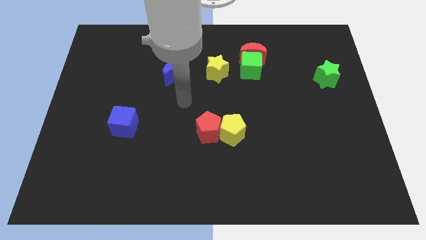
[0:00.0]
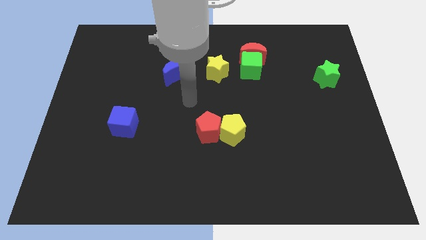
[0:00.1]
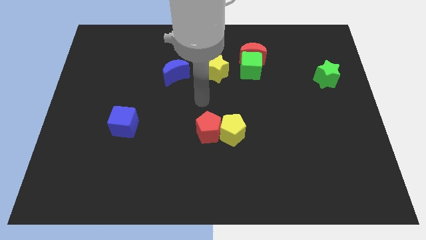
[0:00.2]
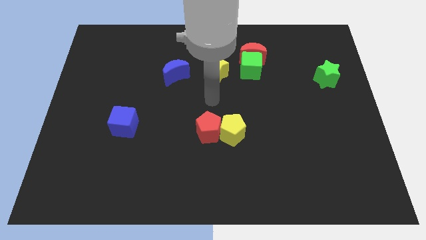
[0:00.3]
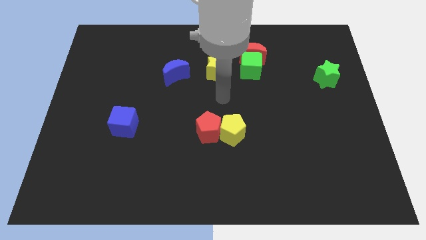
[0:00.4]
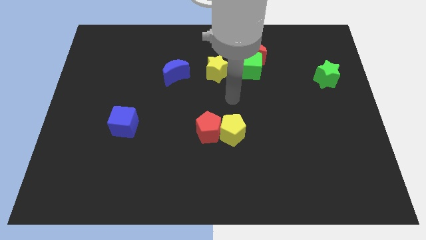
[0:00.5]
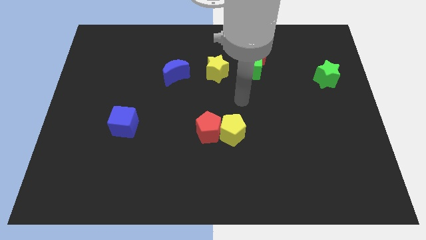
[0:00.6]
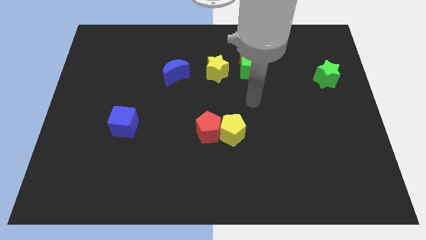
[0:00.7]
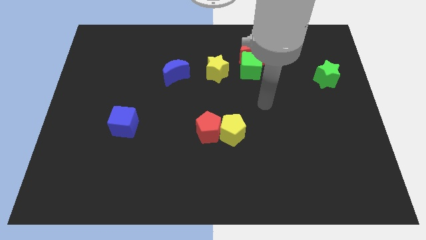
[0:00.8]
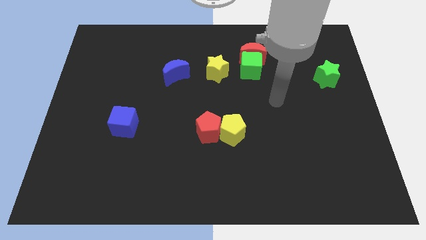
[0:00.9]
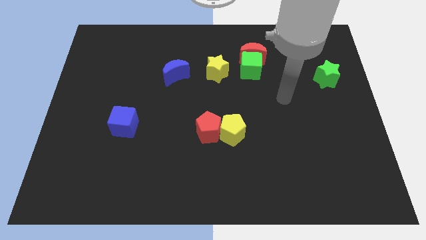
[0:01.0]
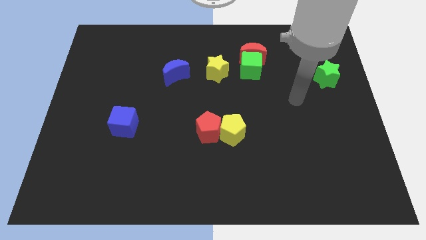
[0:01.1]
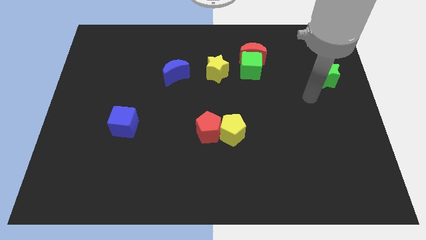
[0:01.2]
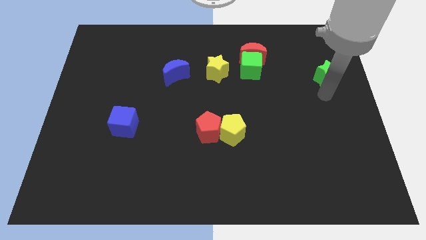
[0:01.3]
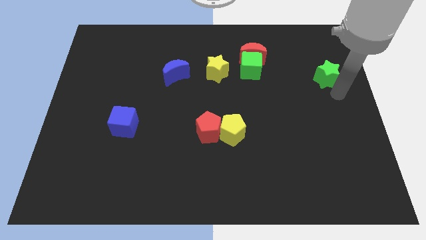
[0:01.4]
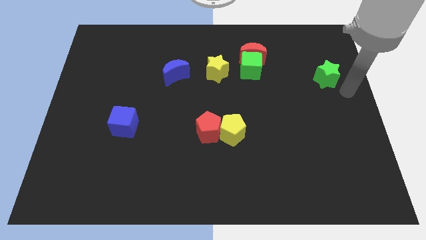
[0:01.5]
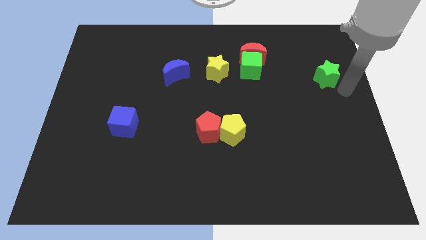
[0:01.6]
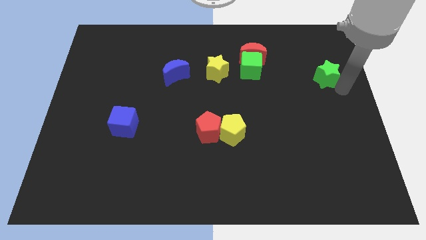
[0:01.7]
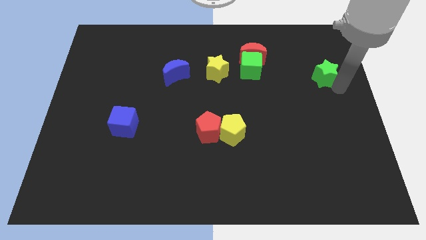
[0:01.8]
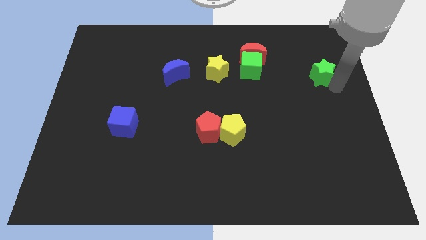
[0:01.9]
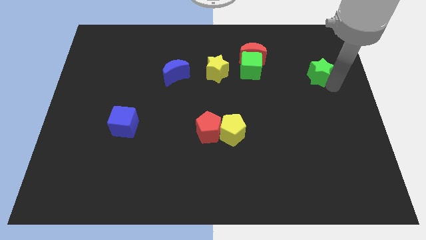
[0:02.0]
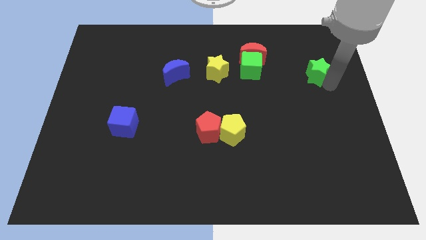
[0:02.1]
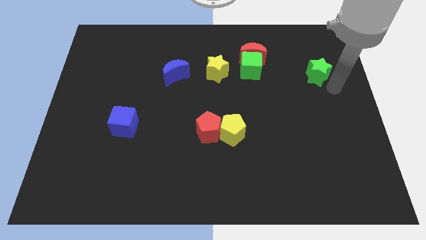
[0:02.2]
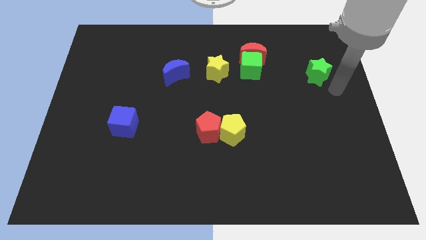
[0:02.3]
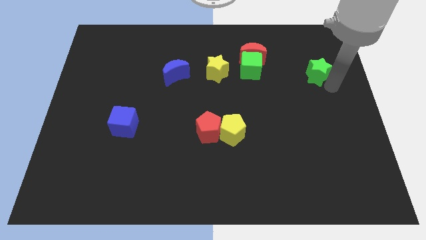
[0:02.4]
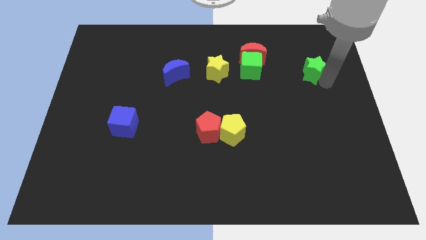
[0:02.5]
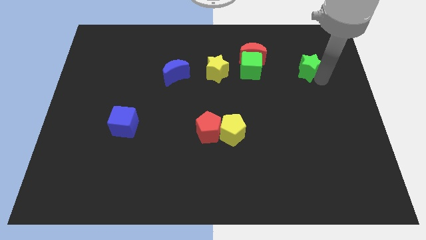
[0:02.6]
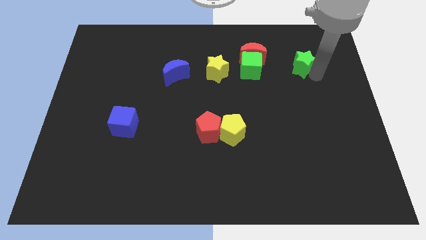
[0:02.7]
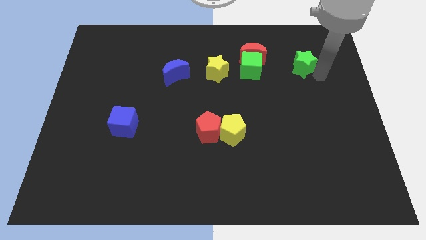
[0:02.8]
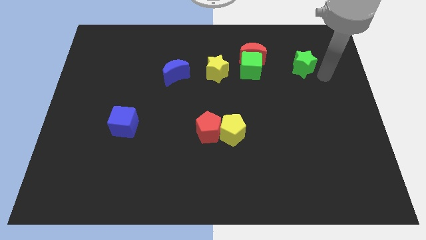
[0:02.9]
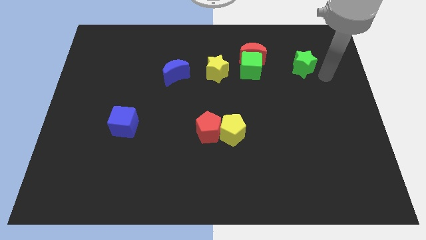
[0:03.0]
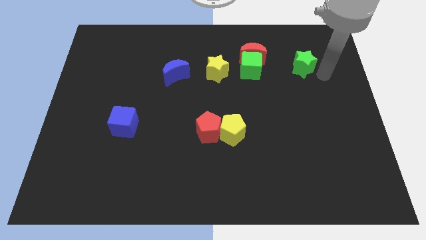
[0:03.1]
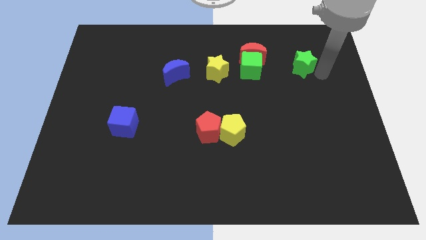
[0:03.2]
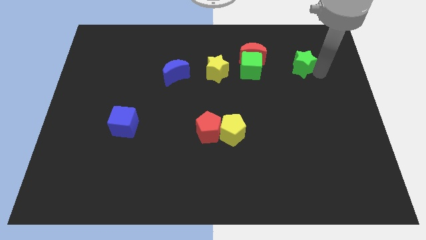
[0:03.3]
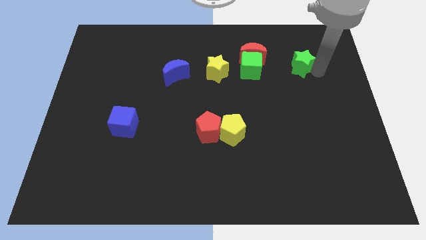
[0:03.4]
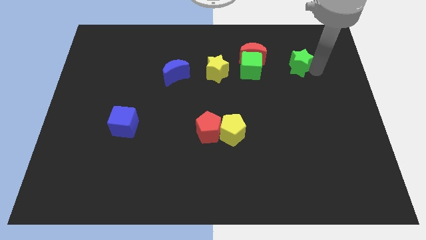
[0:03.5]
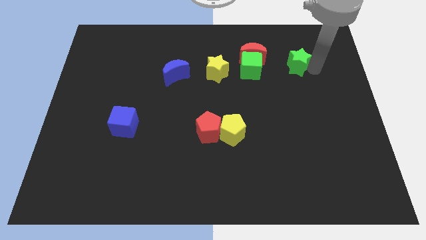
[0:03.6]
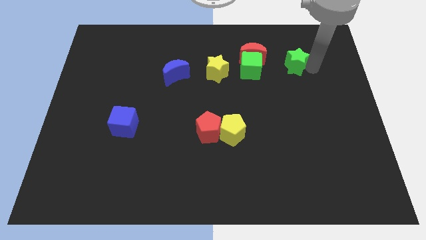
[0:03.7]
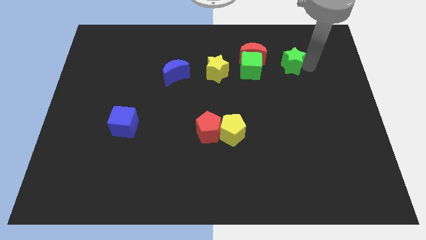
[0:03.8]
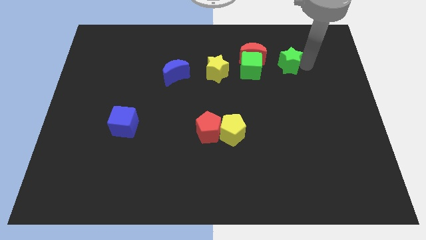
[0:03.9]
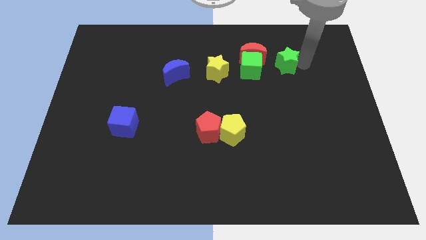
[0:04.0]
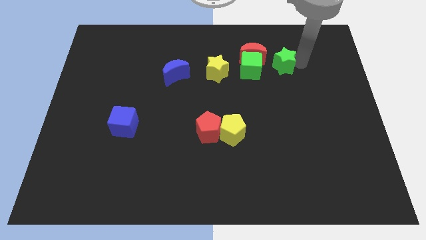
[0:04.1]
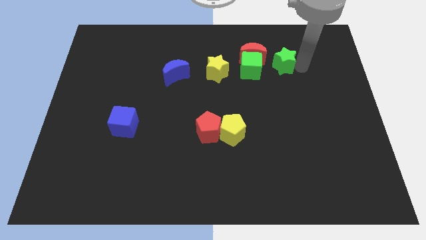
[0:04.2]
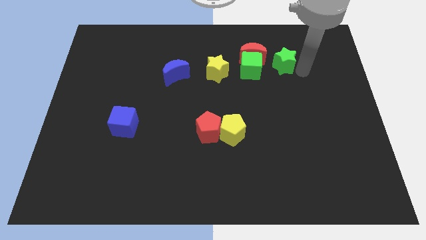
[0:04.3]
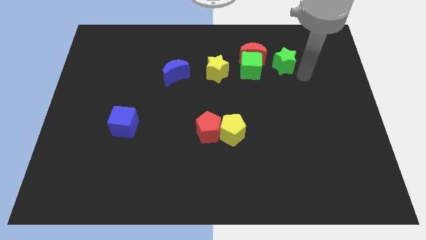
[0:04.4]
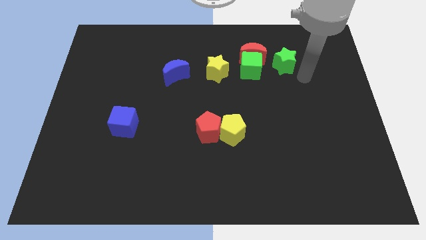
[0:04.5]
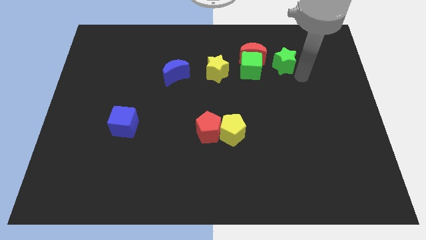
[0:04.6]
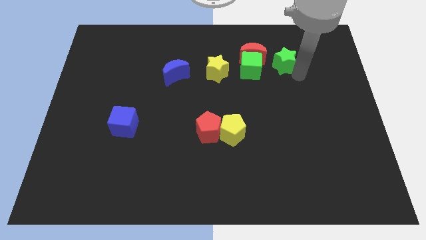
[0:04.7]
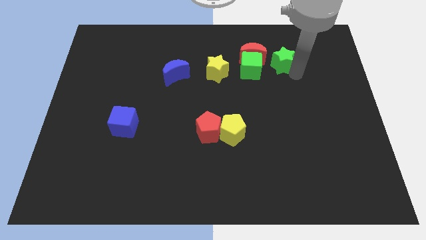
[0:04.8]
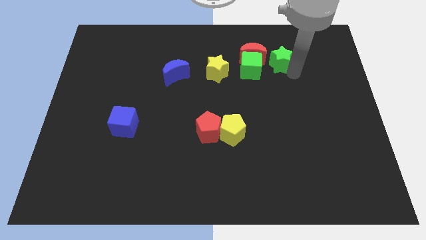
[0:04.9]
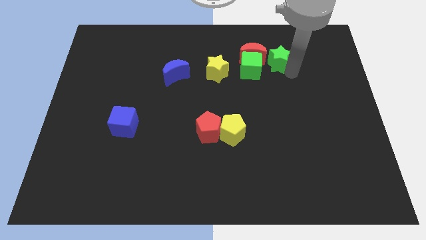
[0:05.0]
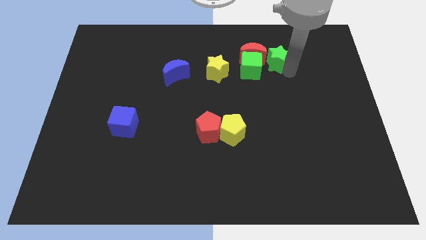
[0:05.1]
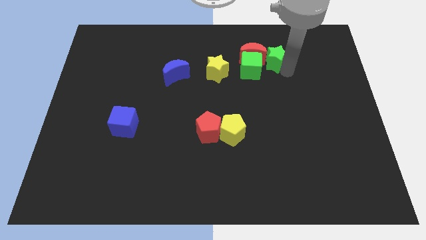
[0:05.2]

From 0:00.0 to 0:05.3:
slide the green star to the red moon

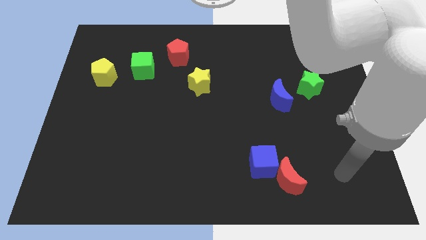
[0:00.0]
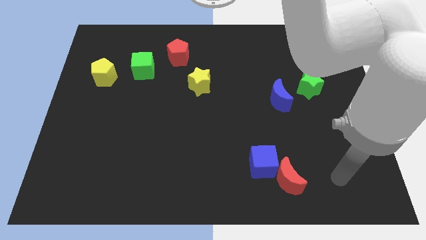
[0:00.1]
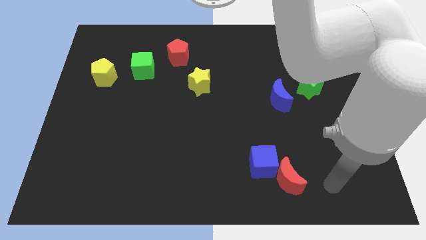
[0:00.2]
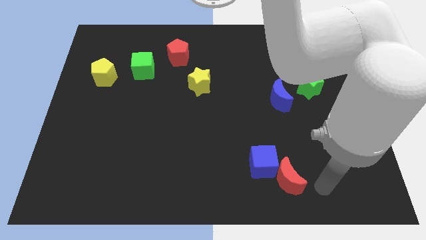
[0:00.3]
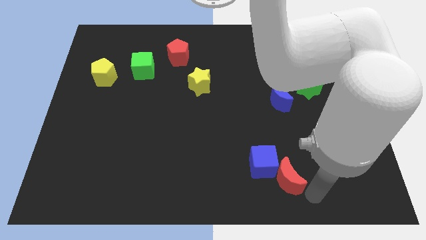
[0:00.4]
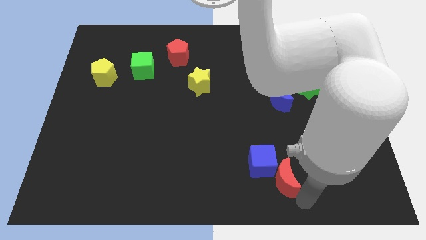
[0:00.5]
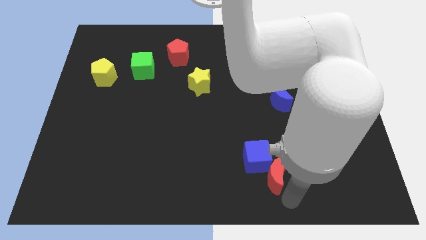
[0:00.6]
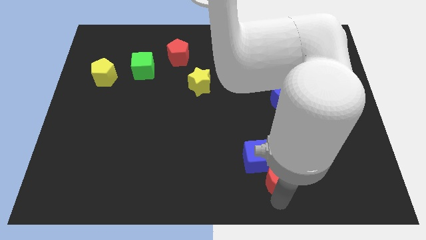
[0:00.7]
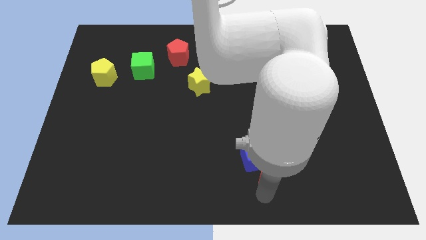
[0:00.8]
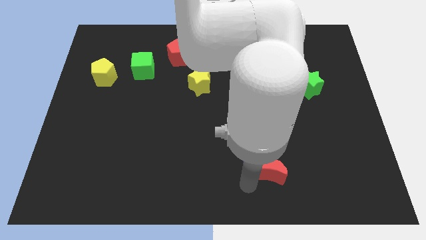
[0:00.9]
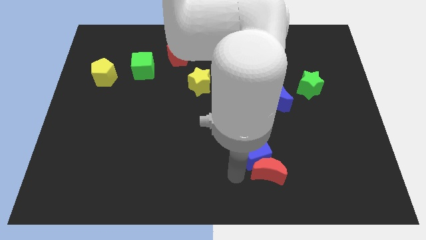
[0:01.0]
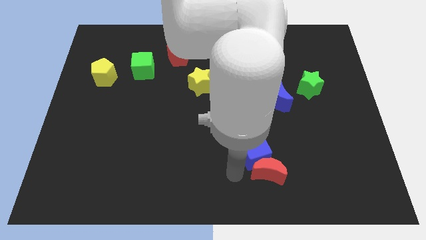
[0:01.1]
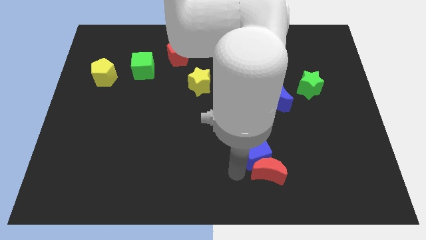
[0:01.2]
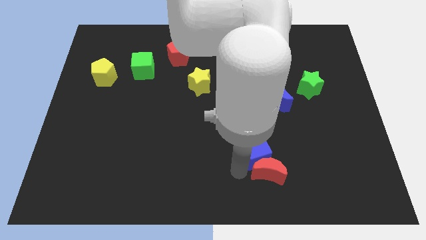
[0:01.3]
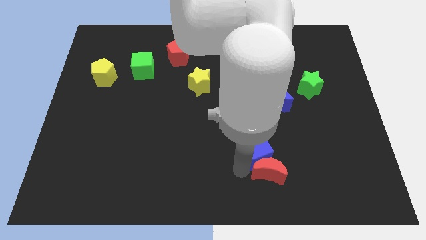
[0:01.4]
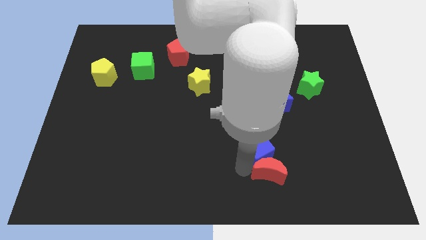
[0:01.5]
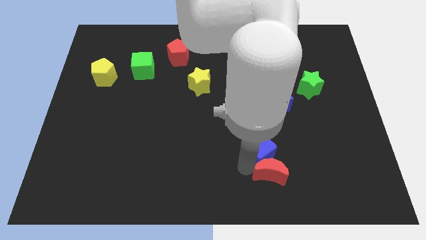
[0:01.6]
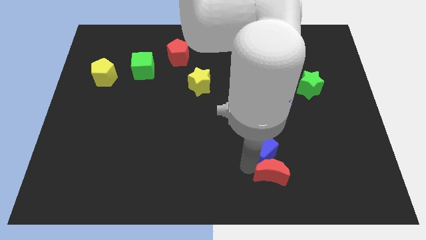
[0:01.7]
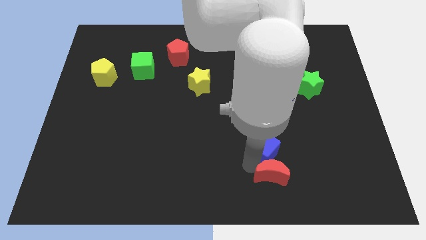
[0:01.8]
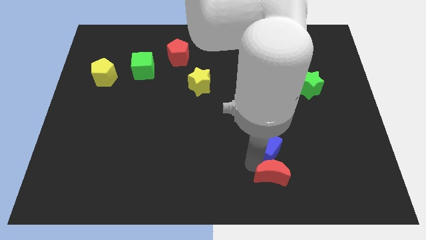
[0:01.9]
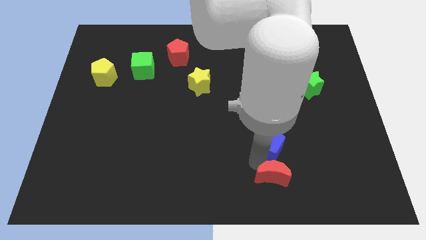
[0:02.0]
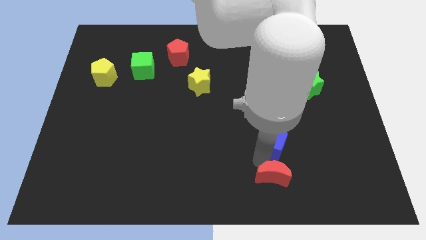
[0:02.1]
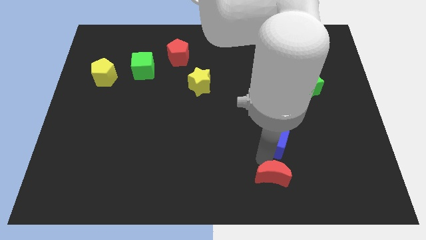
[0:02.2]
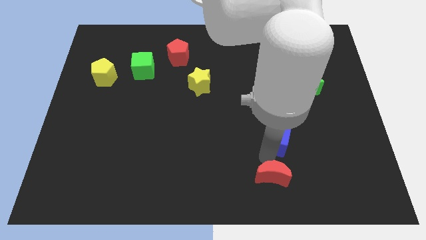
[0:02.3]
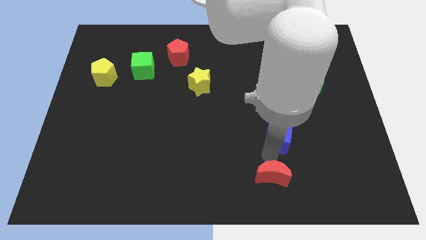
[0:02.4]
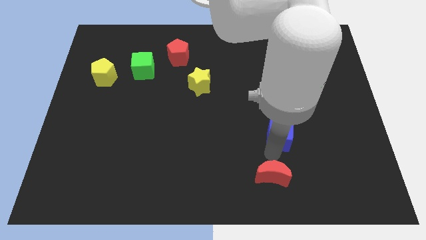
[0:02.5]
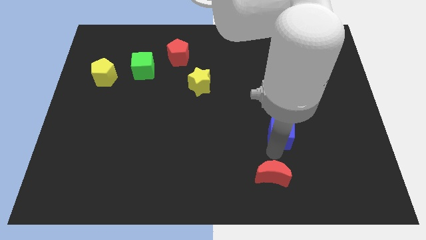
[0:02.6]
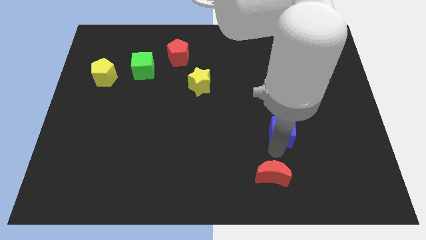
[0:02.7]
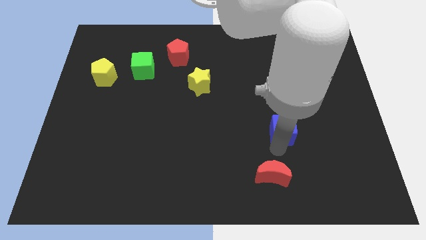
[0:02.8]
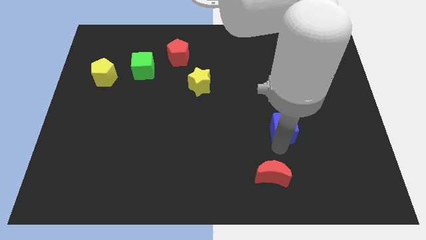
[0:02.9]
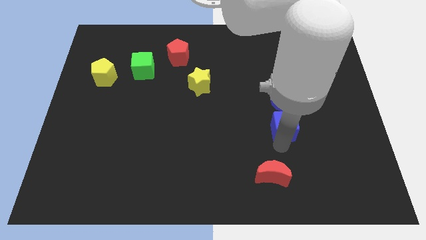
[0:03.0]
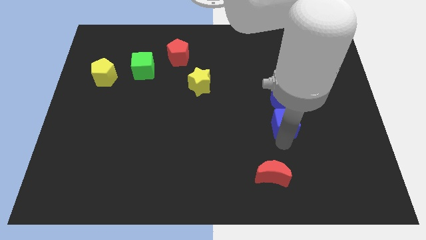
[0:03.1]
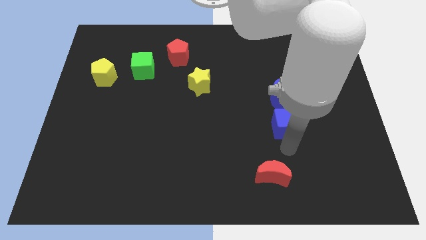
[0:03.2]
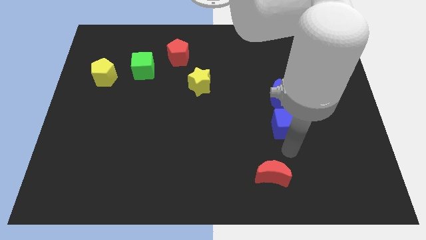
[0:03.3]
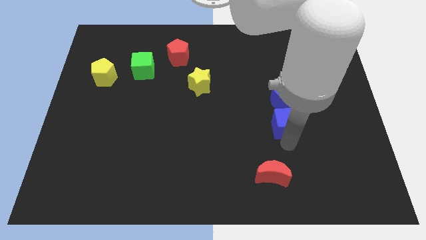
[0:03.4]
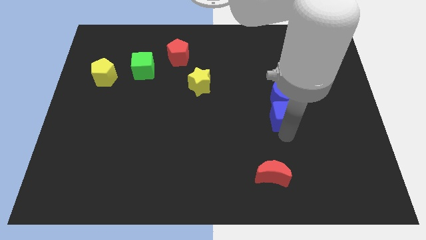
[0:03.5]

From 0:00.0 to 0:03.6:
put the blue cube close to the blue moon
